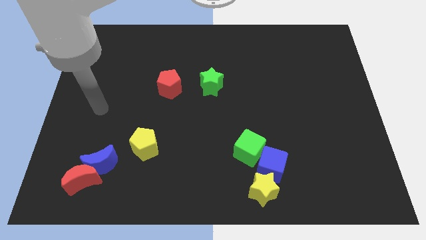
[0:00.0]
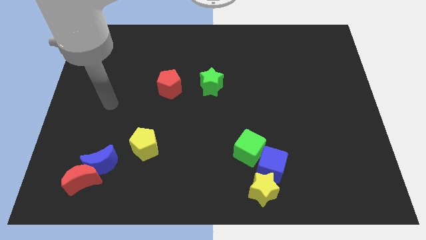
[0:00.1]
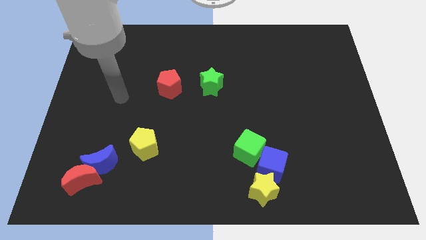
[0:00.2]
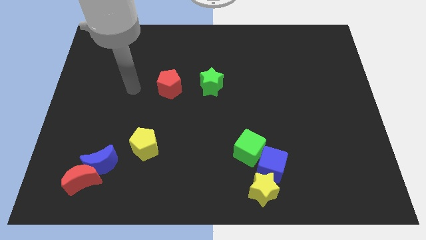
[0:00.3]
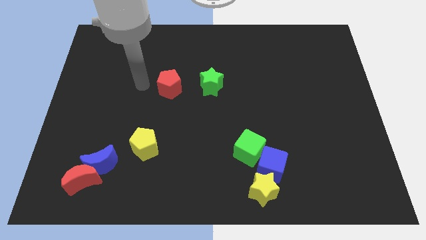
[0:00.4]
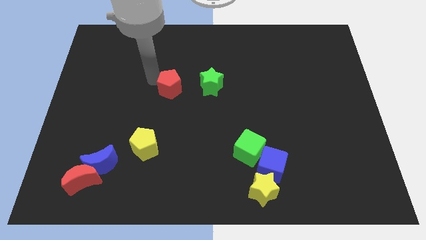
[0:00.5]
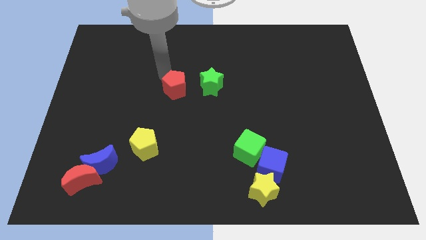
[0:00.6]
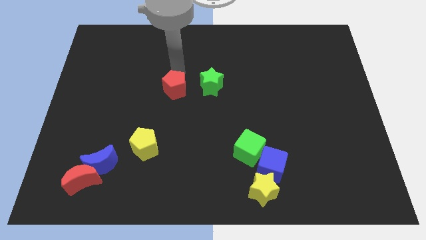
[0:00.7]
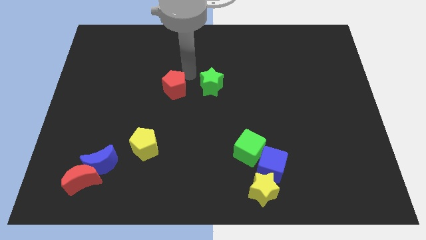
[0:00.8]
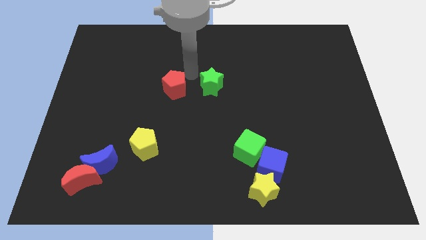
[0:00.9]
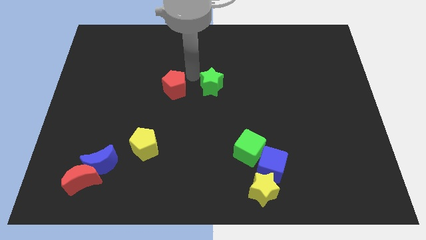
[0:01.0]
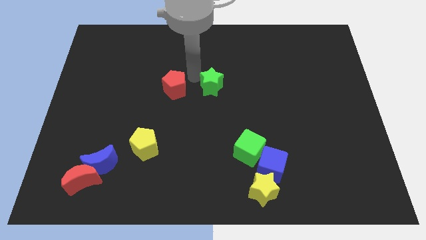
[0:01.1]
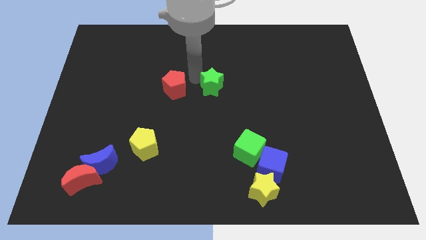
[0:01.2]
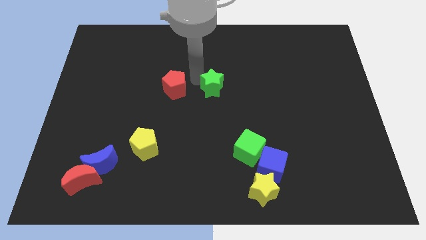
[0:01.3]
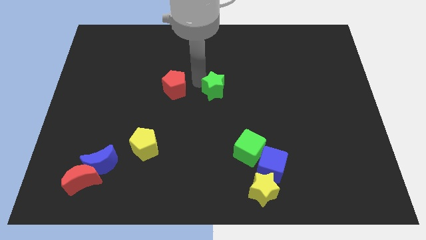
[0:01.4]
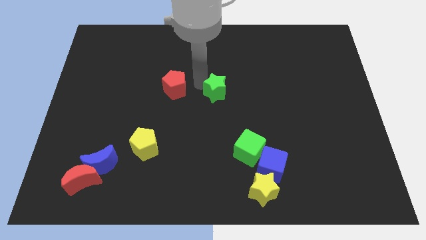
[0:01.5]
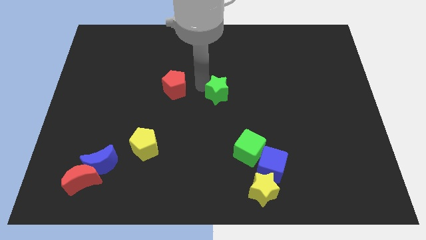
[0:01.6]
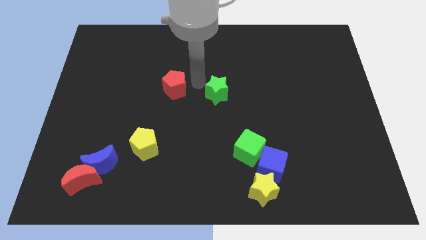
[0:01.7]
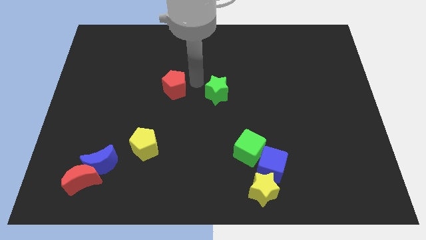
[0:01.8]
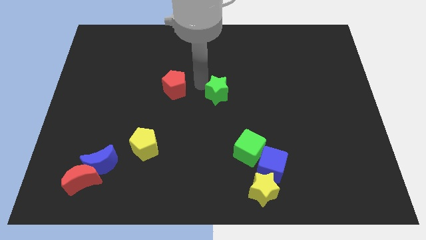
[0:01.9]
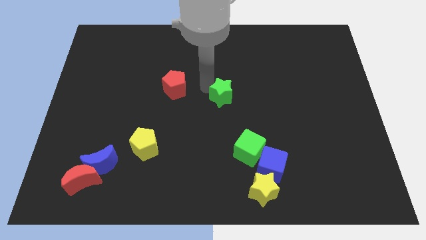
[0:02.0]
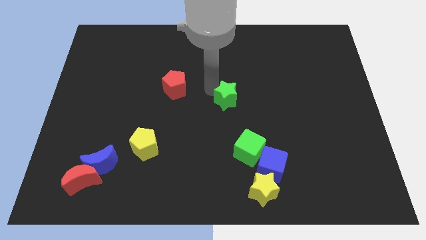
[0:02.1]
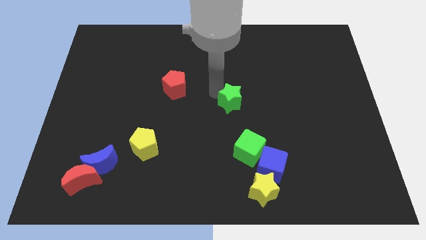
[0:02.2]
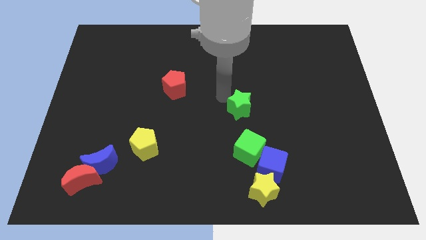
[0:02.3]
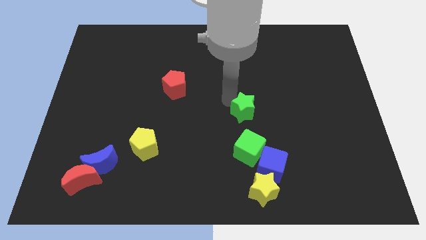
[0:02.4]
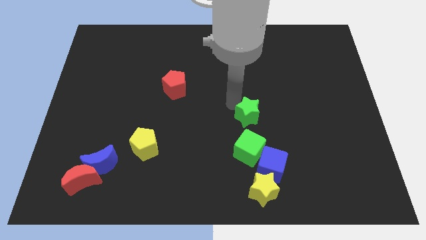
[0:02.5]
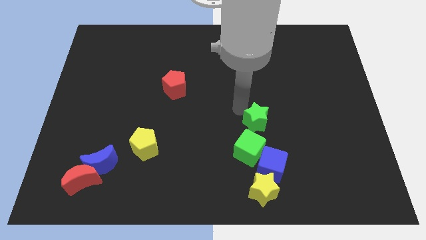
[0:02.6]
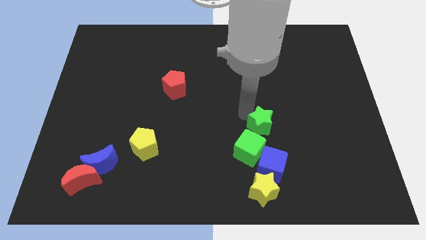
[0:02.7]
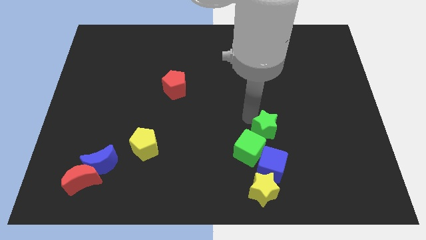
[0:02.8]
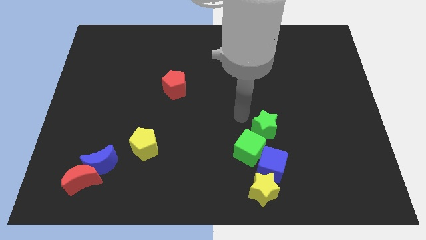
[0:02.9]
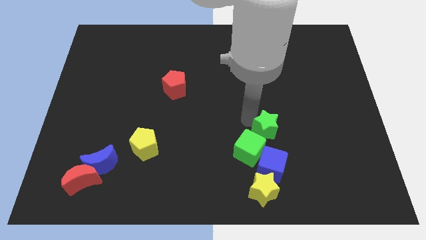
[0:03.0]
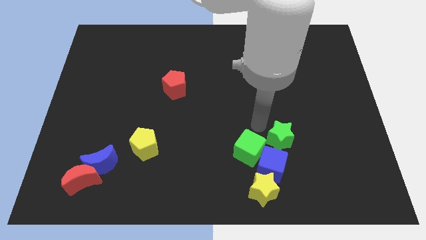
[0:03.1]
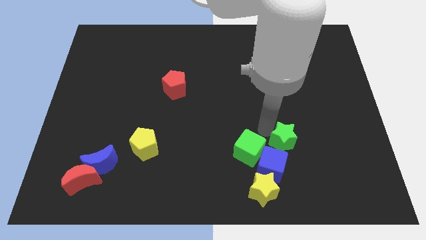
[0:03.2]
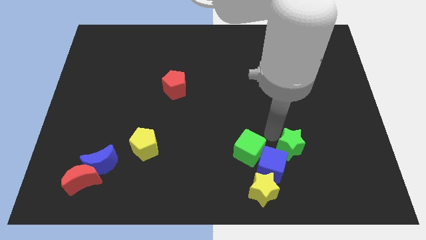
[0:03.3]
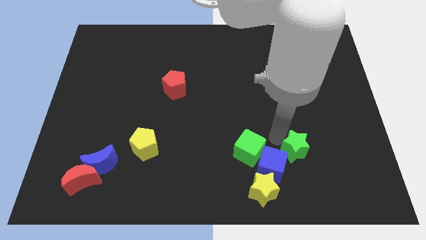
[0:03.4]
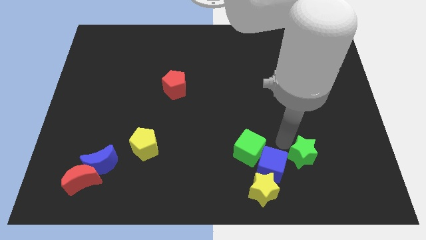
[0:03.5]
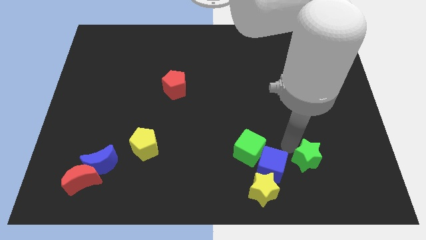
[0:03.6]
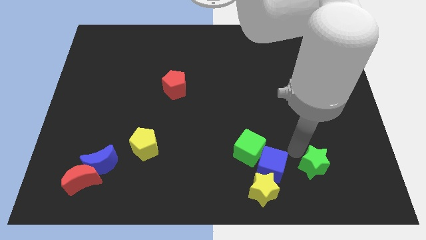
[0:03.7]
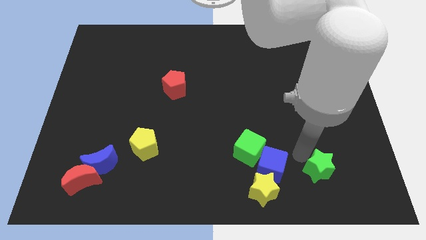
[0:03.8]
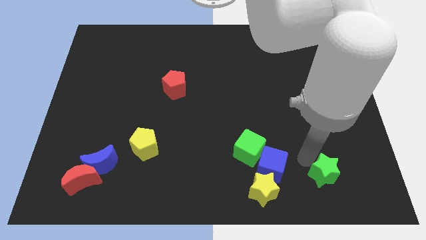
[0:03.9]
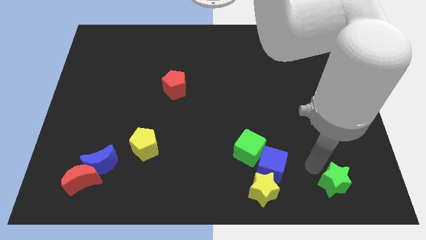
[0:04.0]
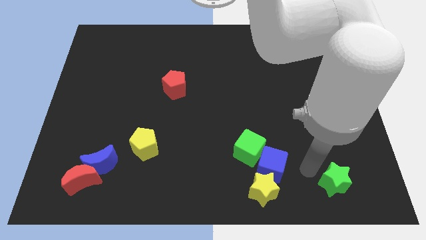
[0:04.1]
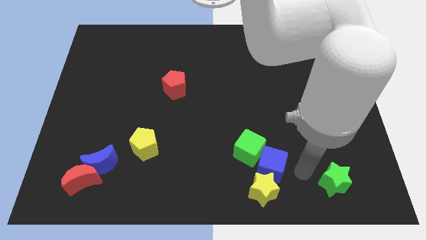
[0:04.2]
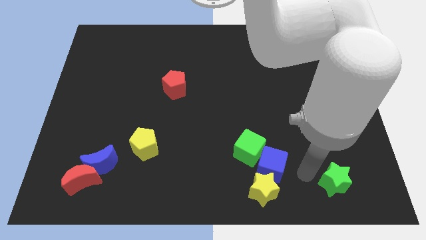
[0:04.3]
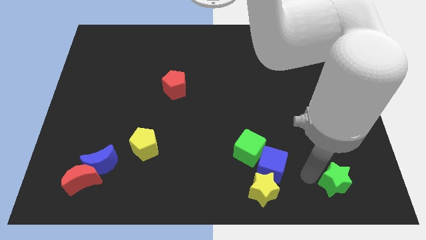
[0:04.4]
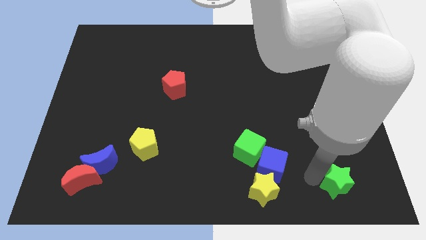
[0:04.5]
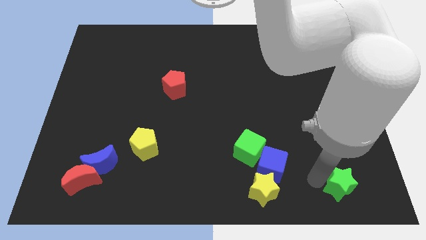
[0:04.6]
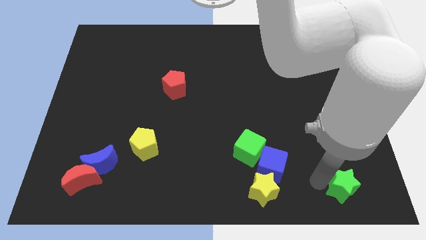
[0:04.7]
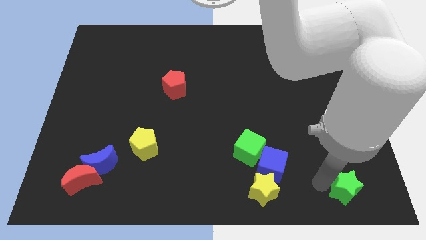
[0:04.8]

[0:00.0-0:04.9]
push the green star to the bottom right of the board

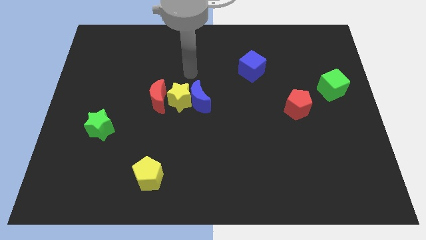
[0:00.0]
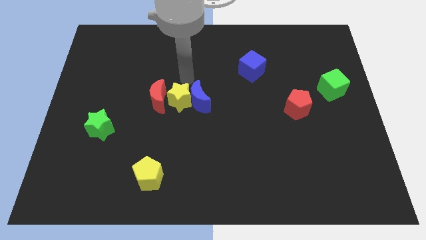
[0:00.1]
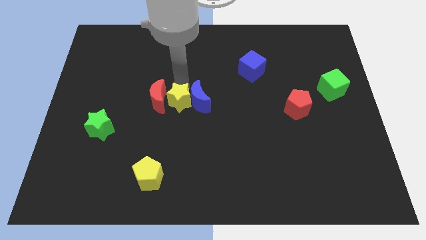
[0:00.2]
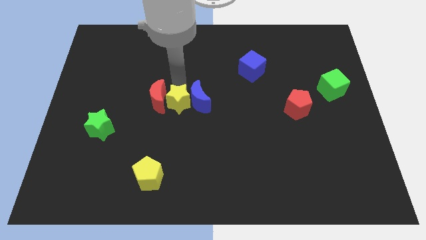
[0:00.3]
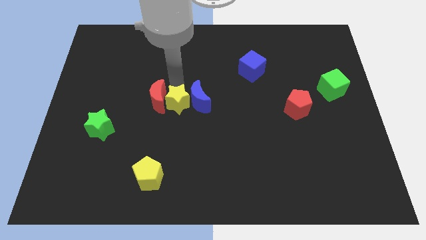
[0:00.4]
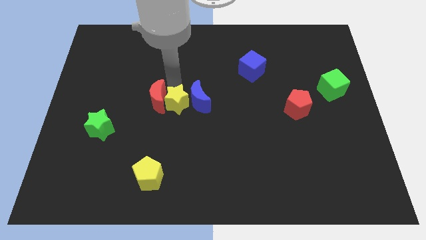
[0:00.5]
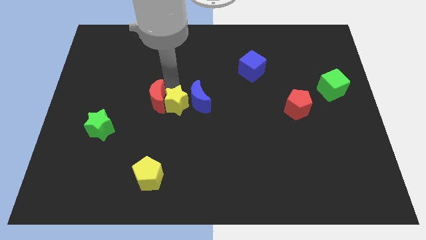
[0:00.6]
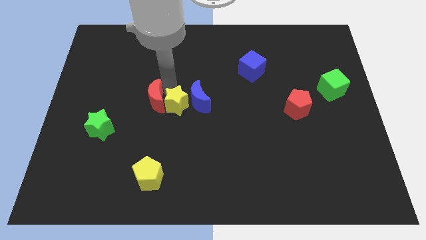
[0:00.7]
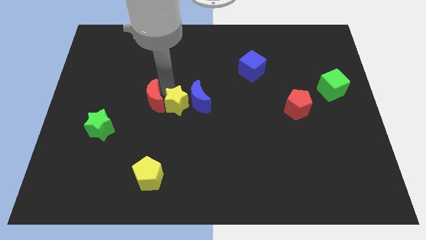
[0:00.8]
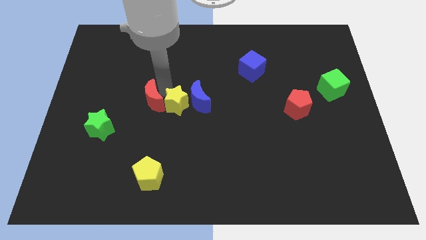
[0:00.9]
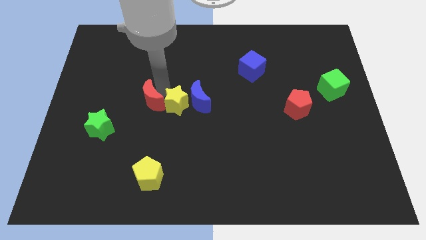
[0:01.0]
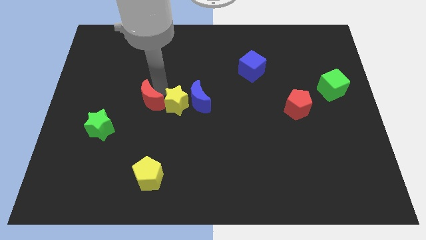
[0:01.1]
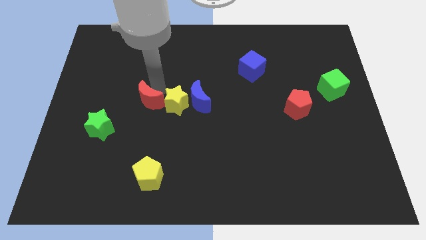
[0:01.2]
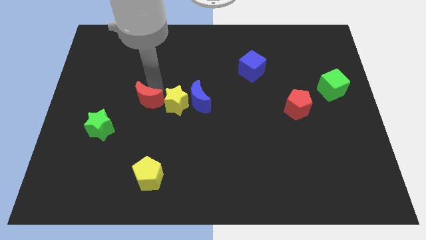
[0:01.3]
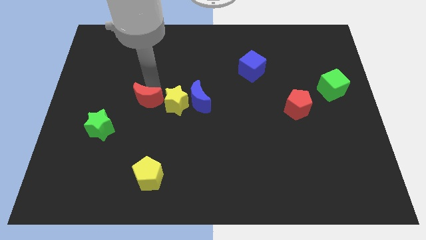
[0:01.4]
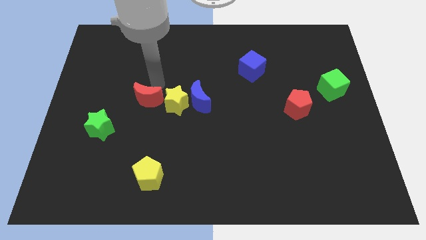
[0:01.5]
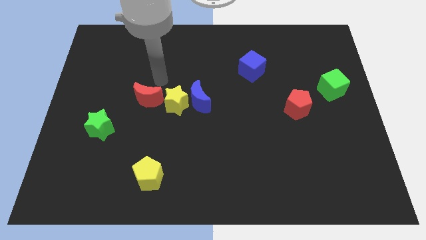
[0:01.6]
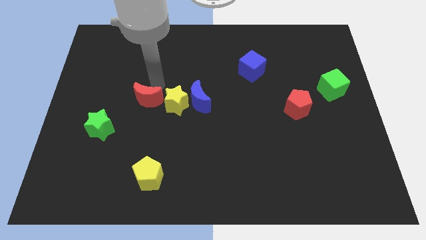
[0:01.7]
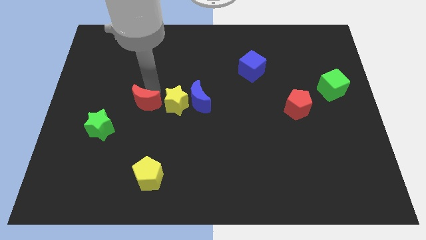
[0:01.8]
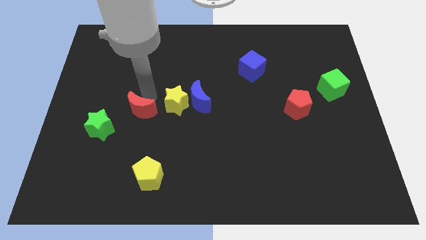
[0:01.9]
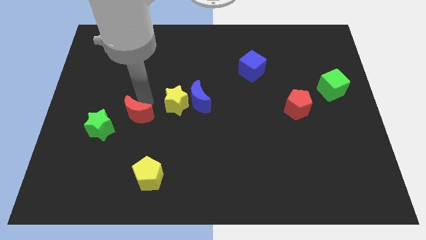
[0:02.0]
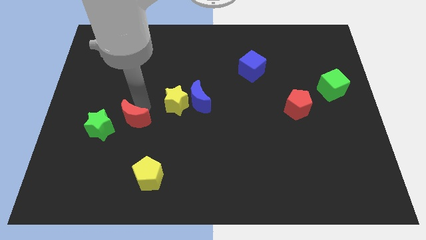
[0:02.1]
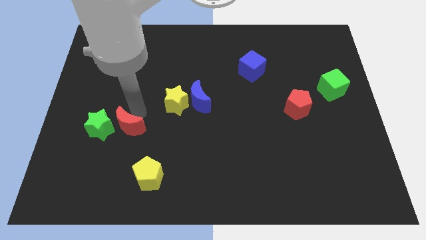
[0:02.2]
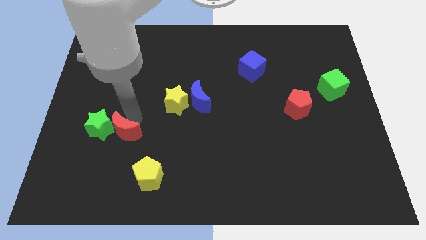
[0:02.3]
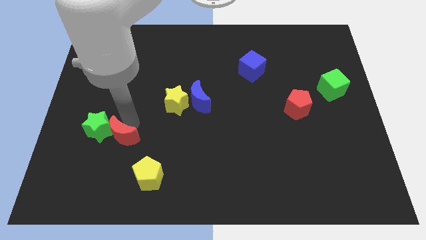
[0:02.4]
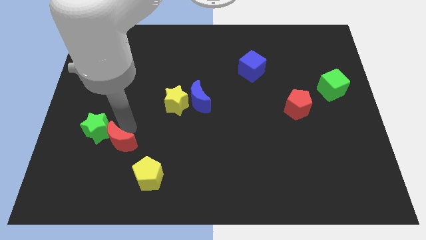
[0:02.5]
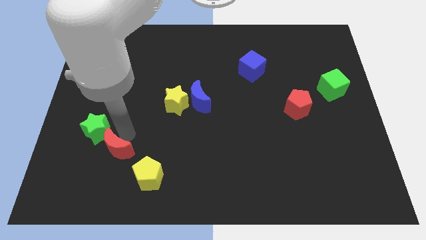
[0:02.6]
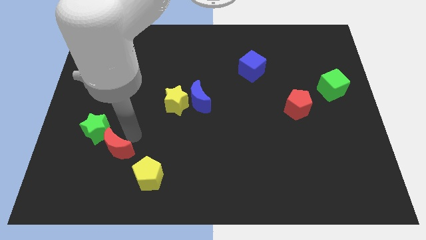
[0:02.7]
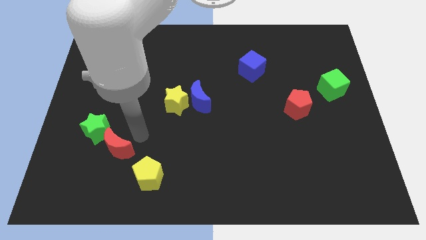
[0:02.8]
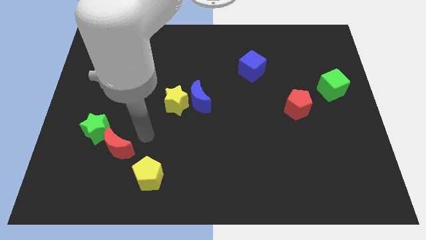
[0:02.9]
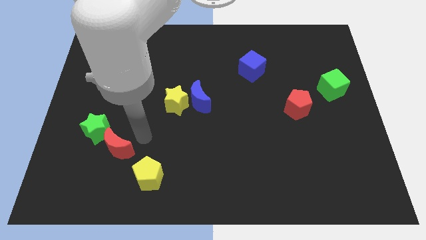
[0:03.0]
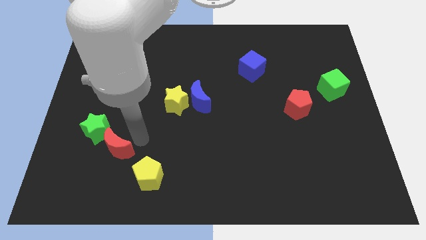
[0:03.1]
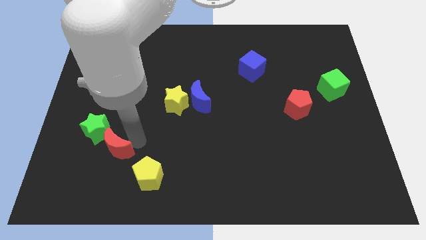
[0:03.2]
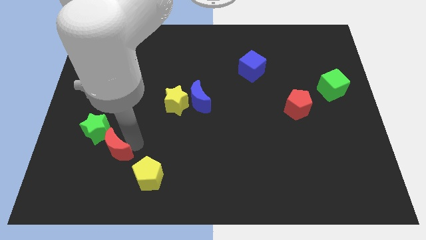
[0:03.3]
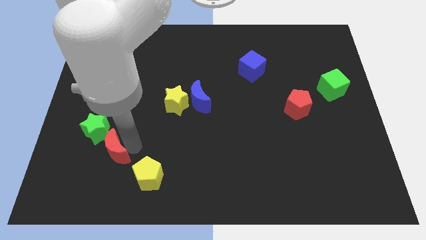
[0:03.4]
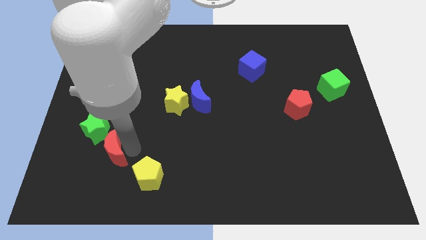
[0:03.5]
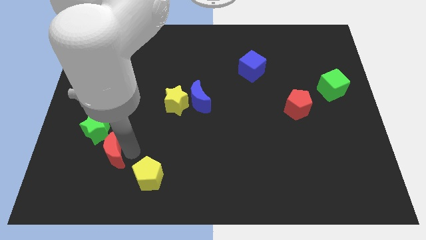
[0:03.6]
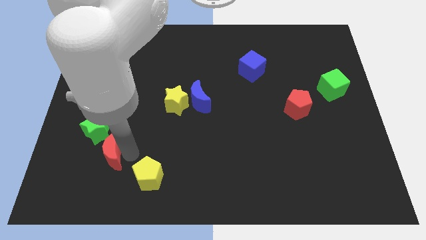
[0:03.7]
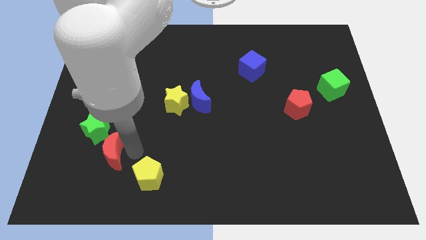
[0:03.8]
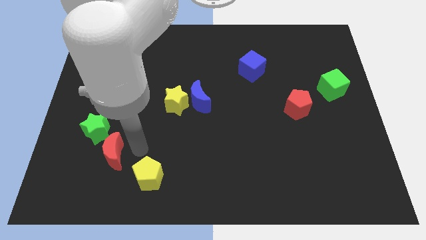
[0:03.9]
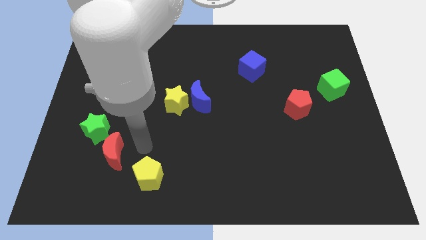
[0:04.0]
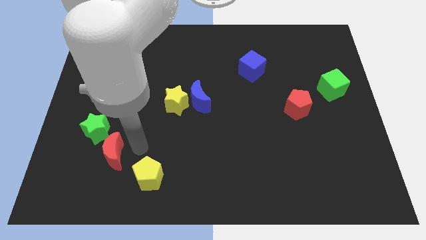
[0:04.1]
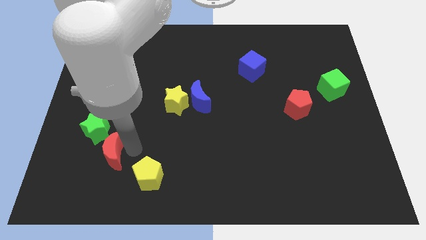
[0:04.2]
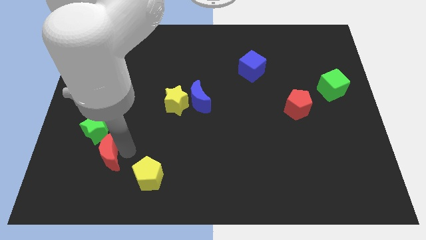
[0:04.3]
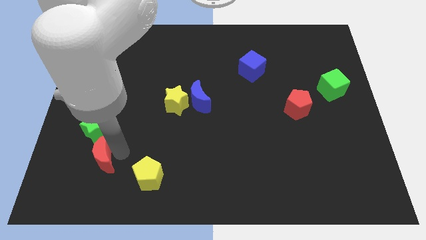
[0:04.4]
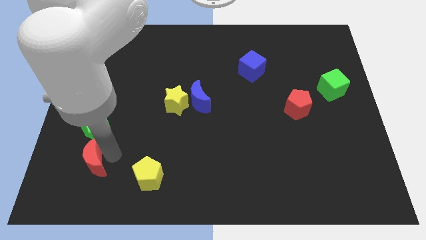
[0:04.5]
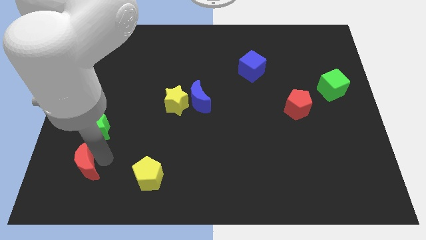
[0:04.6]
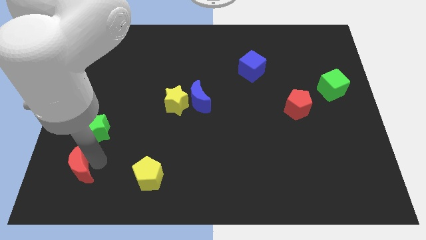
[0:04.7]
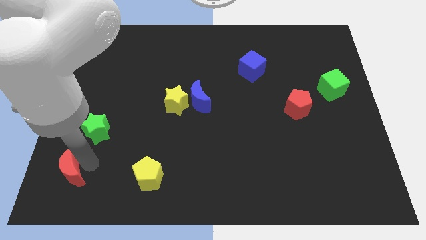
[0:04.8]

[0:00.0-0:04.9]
push the red moon to the bottom left of the board
